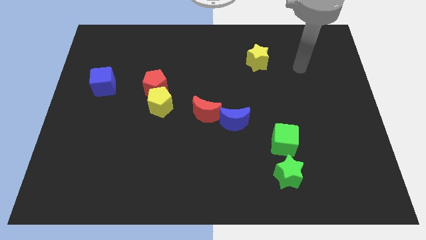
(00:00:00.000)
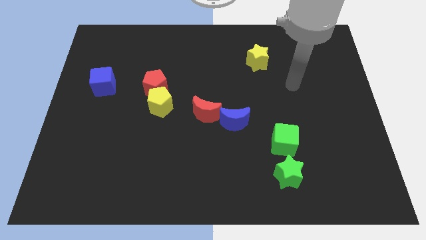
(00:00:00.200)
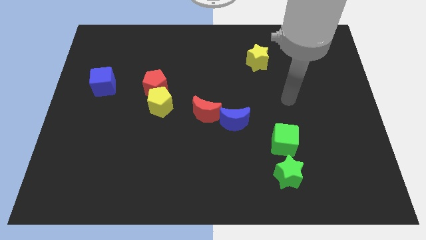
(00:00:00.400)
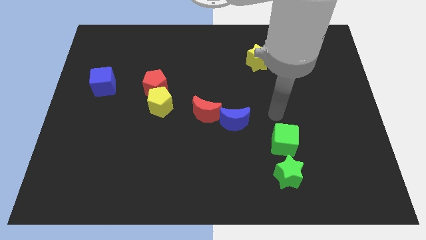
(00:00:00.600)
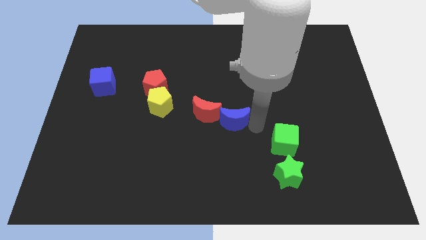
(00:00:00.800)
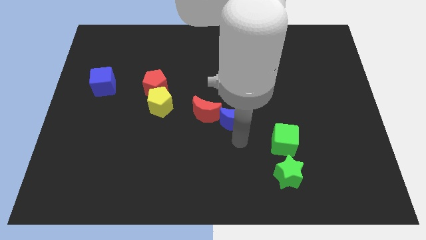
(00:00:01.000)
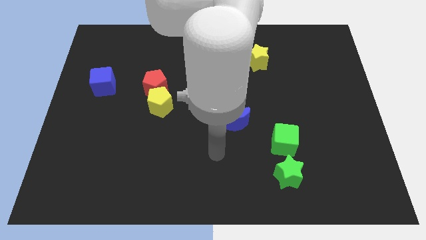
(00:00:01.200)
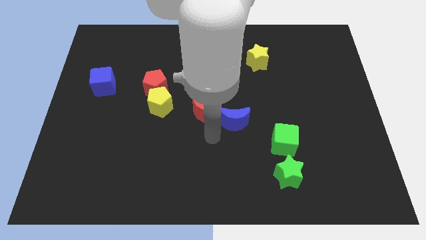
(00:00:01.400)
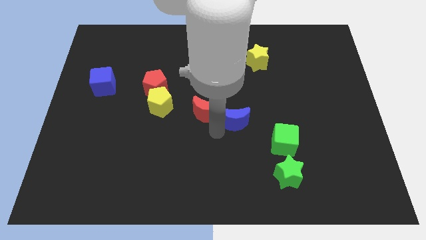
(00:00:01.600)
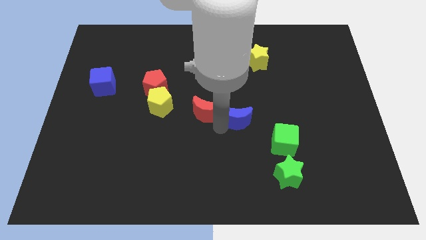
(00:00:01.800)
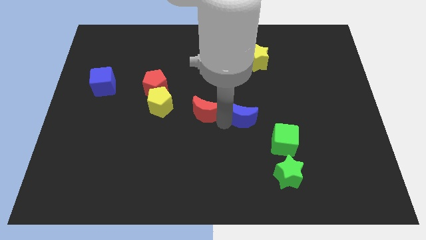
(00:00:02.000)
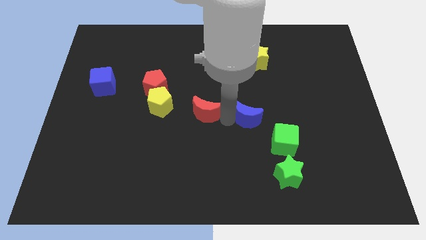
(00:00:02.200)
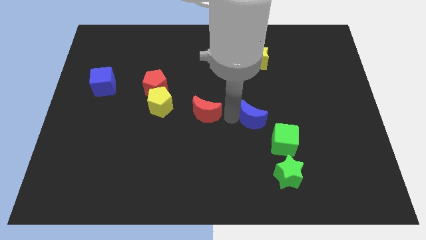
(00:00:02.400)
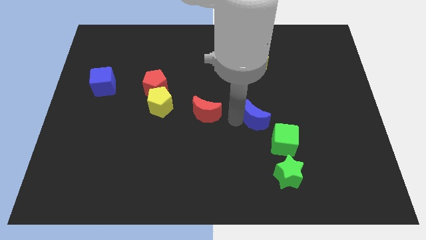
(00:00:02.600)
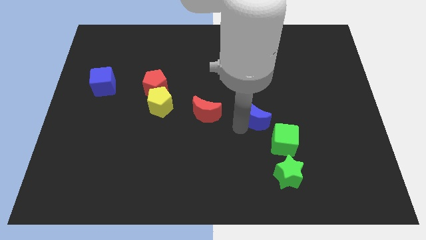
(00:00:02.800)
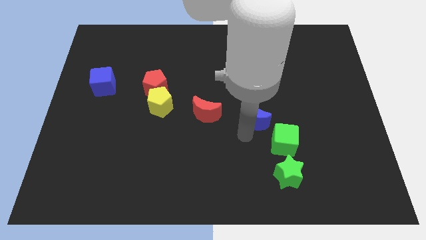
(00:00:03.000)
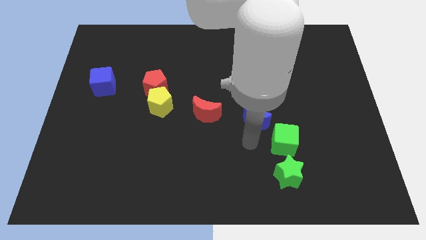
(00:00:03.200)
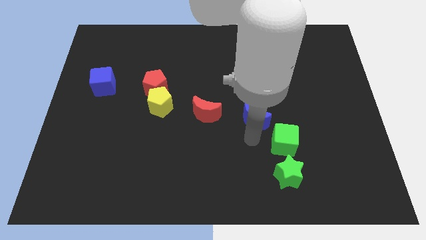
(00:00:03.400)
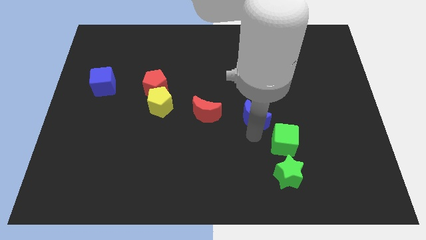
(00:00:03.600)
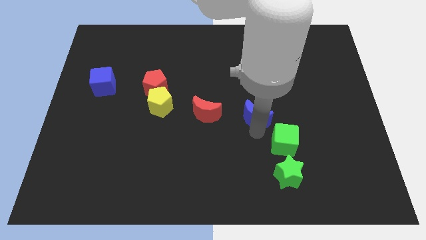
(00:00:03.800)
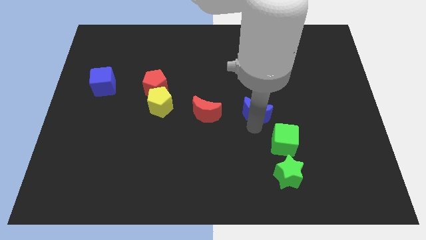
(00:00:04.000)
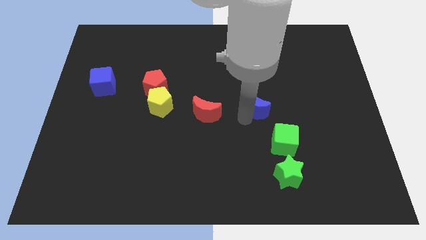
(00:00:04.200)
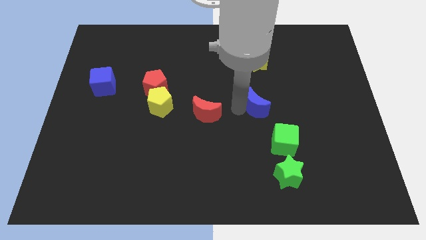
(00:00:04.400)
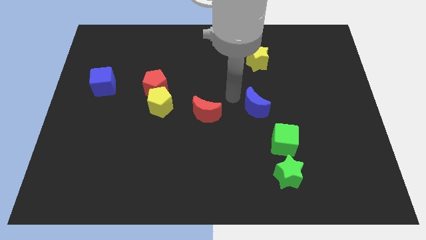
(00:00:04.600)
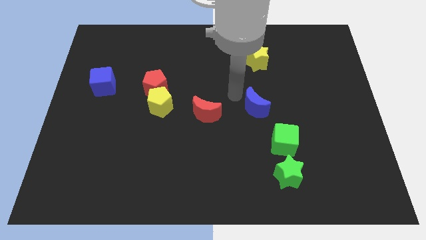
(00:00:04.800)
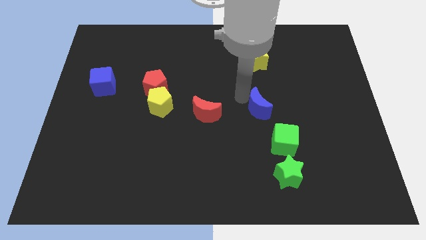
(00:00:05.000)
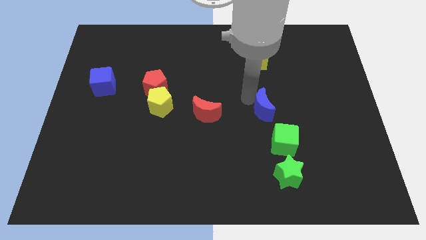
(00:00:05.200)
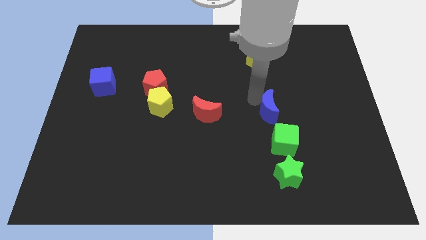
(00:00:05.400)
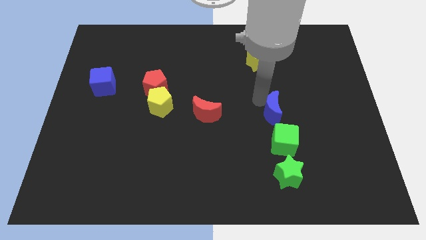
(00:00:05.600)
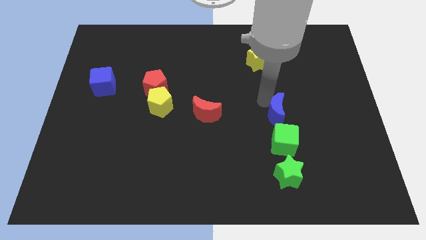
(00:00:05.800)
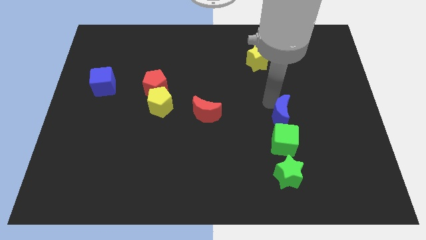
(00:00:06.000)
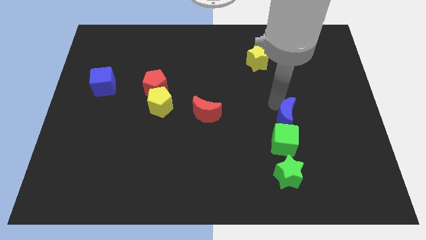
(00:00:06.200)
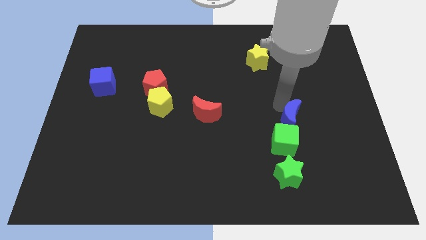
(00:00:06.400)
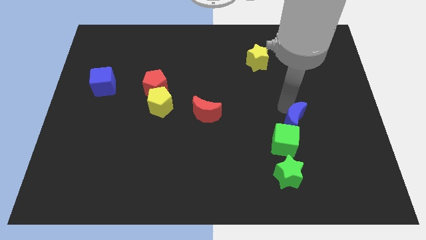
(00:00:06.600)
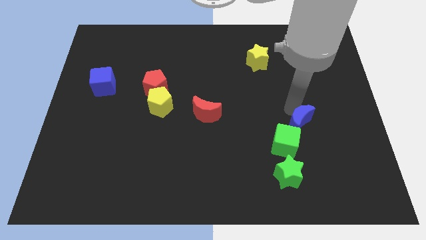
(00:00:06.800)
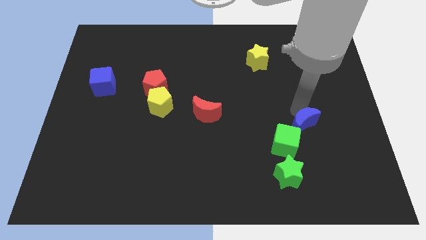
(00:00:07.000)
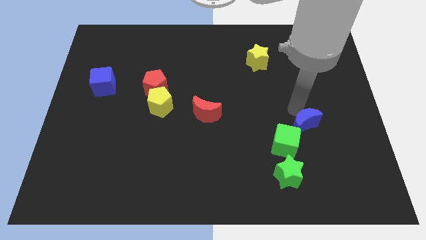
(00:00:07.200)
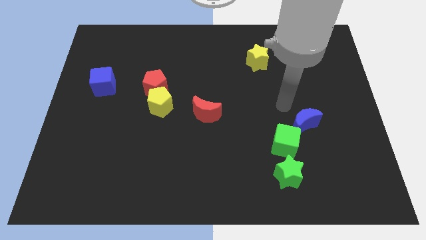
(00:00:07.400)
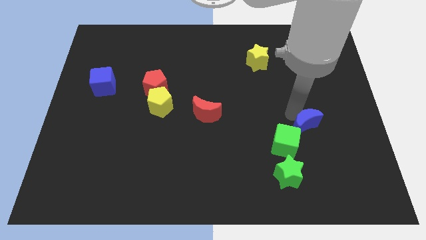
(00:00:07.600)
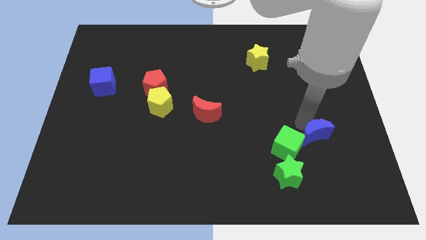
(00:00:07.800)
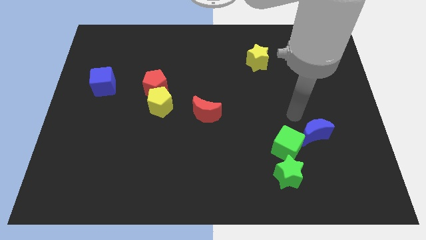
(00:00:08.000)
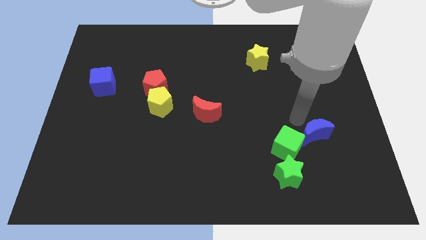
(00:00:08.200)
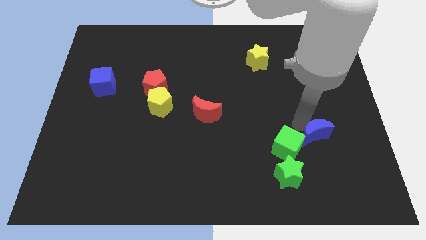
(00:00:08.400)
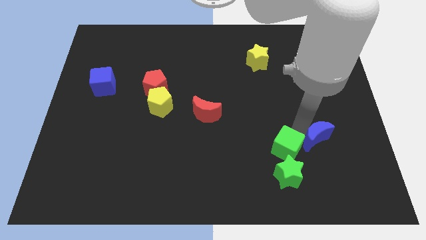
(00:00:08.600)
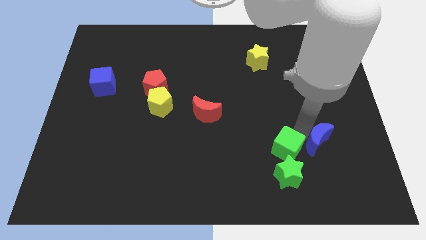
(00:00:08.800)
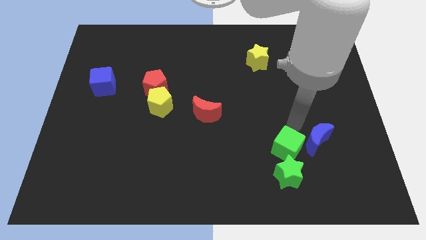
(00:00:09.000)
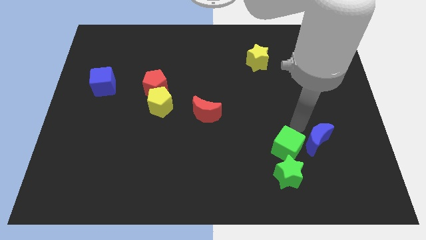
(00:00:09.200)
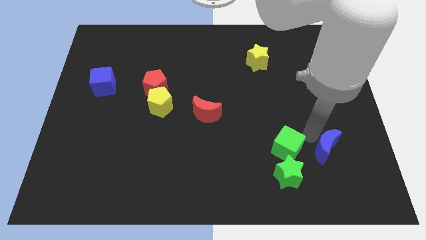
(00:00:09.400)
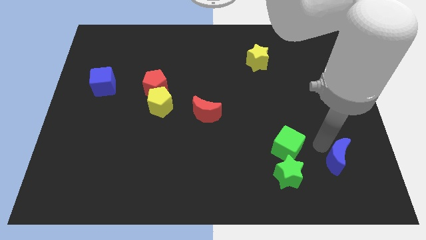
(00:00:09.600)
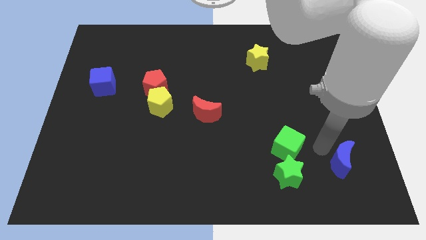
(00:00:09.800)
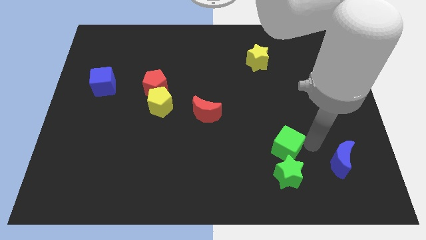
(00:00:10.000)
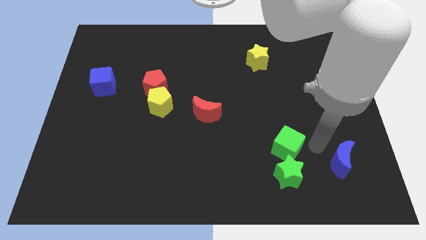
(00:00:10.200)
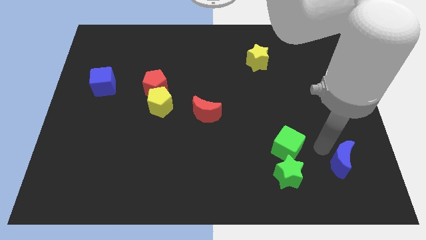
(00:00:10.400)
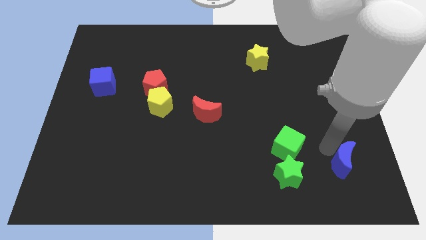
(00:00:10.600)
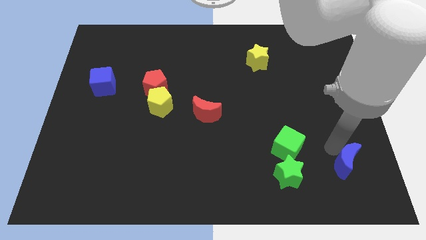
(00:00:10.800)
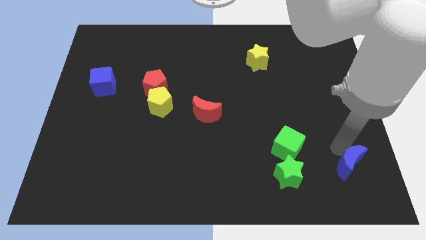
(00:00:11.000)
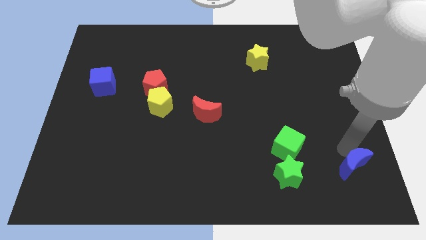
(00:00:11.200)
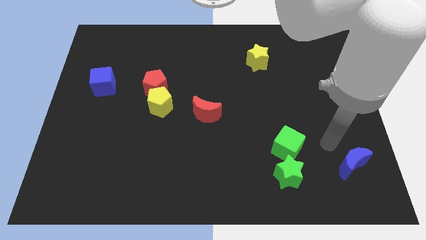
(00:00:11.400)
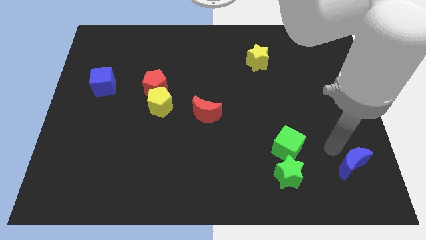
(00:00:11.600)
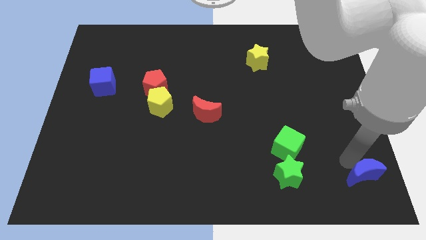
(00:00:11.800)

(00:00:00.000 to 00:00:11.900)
slide the blue moon to the bottom right of the board
